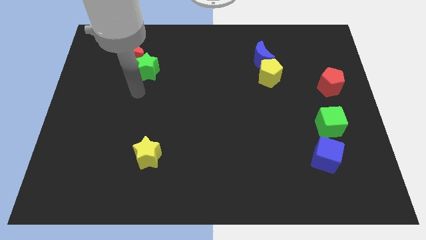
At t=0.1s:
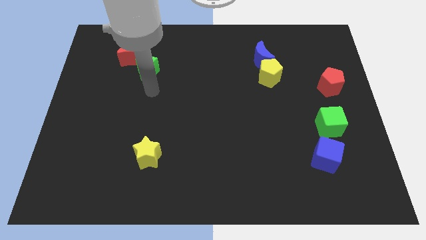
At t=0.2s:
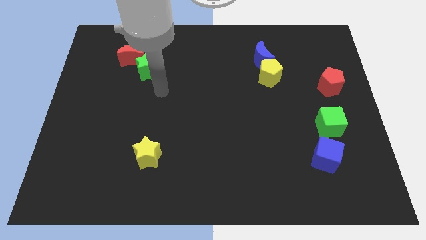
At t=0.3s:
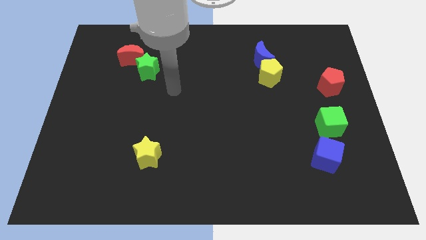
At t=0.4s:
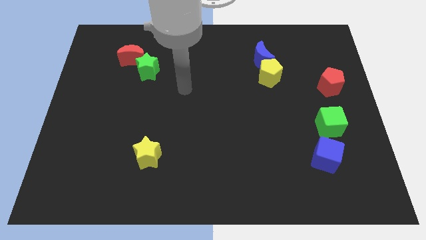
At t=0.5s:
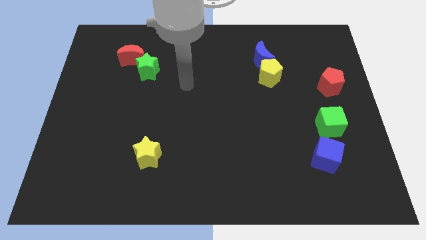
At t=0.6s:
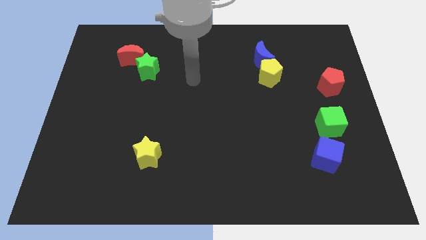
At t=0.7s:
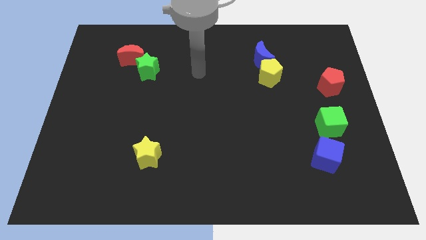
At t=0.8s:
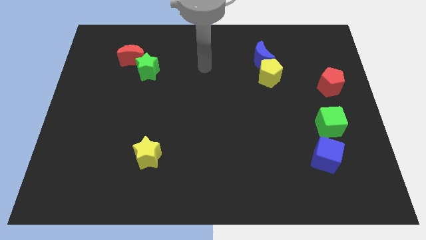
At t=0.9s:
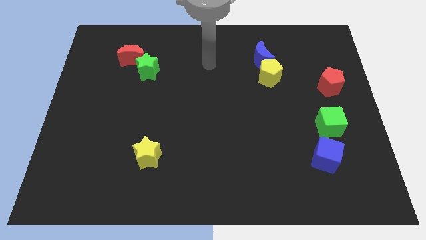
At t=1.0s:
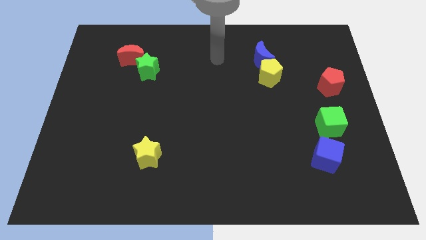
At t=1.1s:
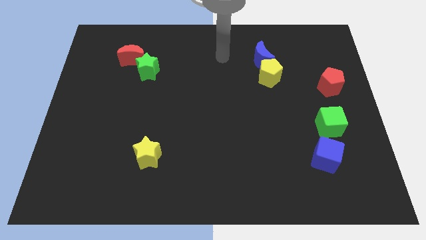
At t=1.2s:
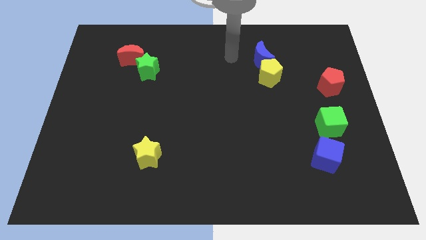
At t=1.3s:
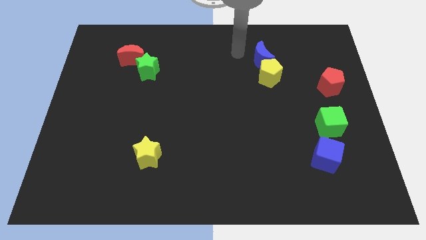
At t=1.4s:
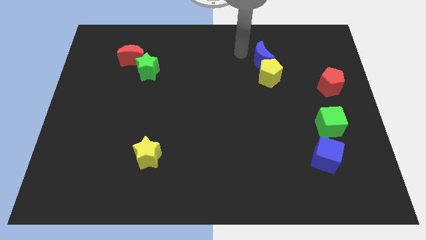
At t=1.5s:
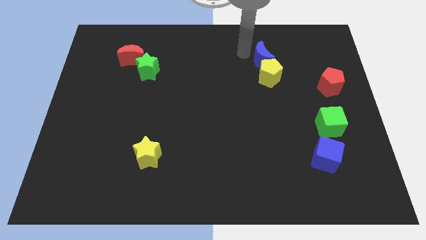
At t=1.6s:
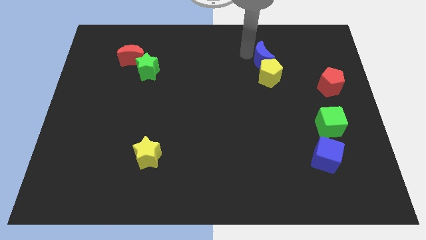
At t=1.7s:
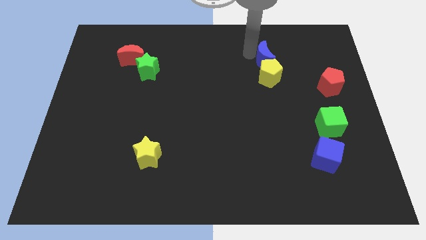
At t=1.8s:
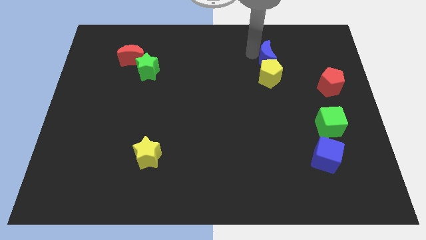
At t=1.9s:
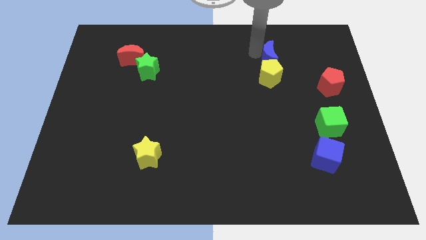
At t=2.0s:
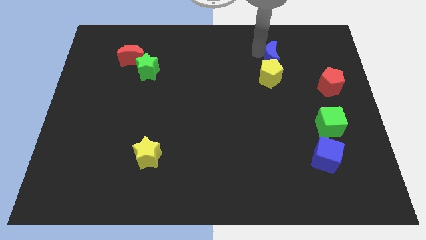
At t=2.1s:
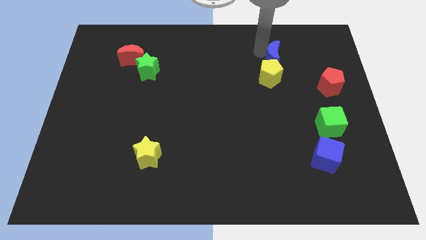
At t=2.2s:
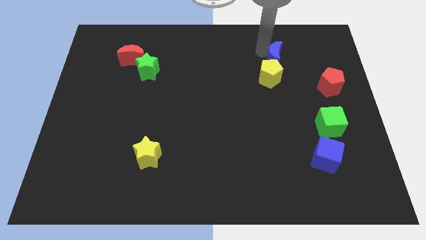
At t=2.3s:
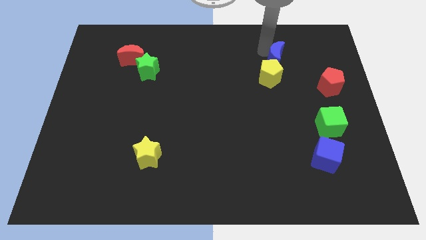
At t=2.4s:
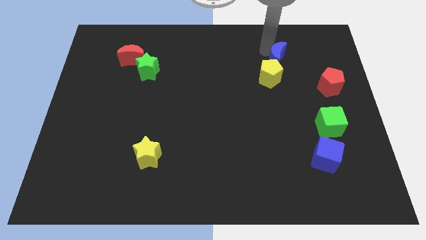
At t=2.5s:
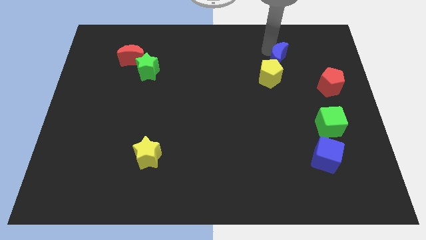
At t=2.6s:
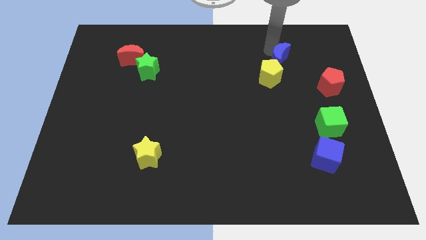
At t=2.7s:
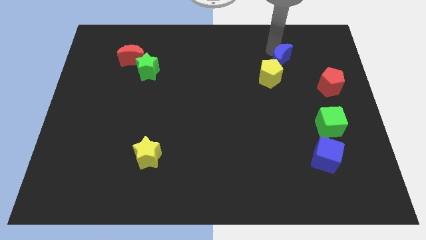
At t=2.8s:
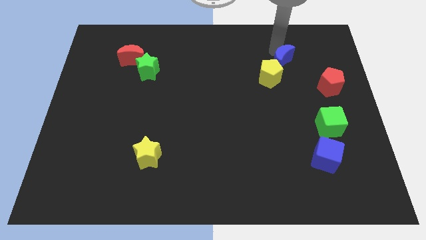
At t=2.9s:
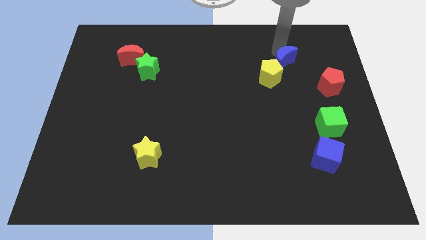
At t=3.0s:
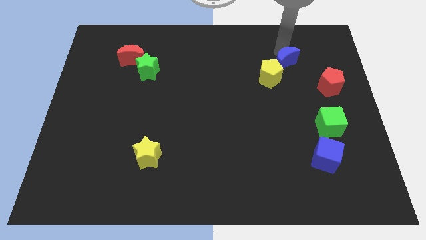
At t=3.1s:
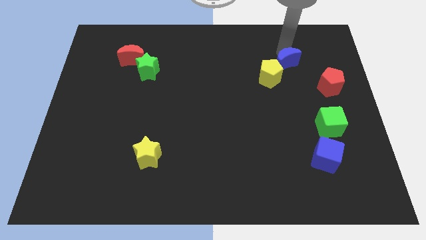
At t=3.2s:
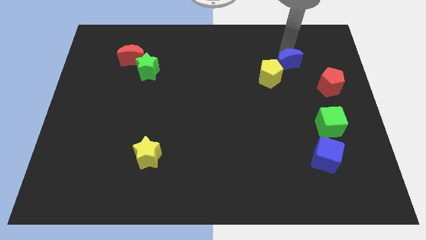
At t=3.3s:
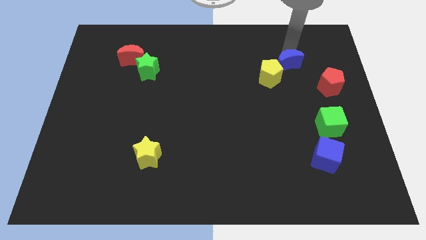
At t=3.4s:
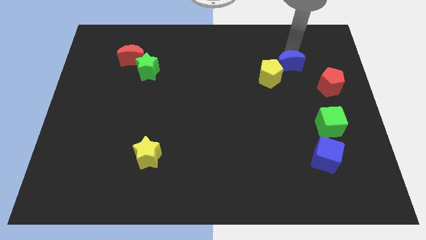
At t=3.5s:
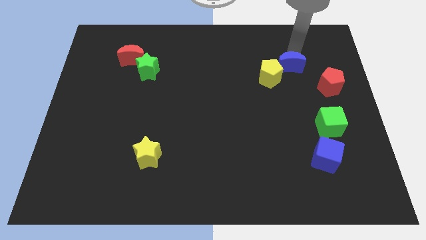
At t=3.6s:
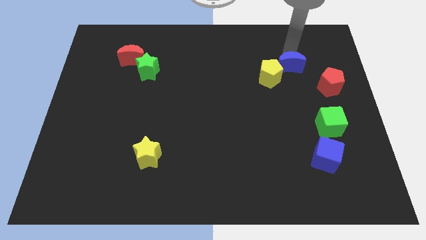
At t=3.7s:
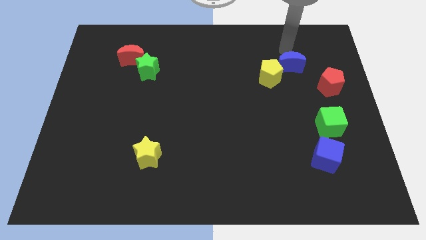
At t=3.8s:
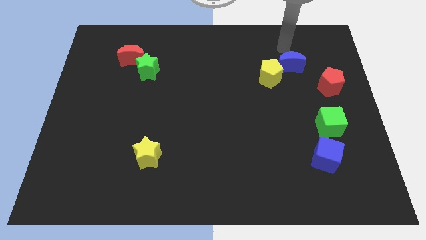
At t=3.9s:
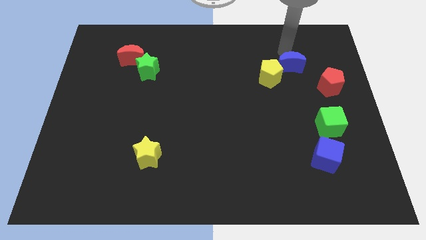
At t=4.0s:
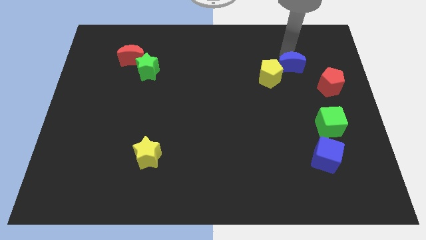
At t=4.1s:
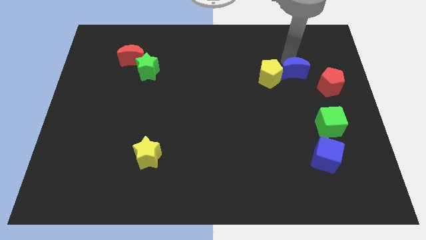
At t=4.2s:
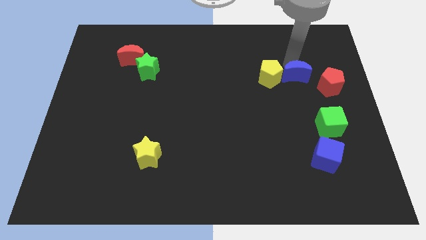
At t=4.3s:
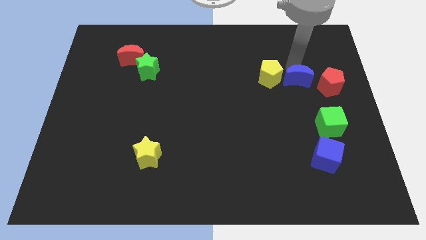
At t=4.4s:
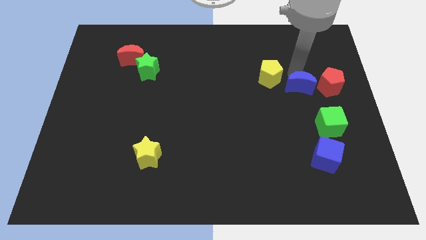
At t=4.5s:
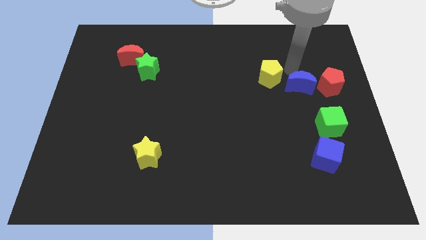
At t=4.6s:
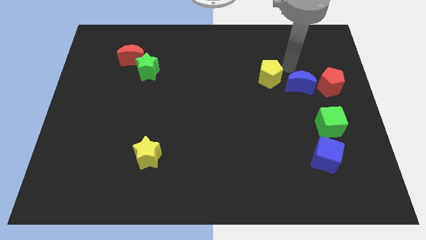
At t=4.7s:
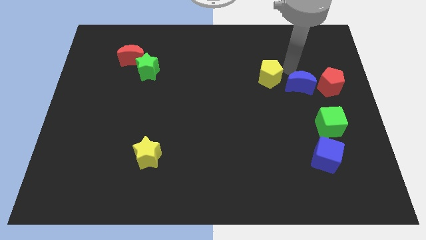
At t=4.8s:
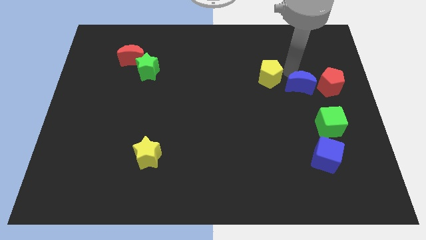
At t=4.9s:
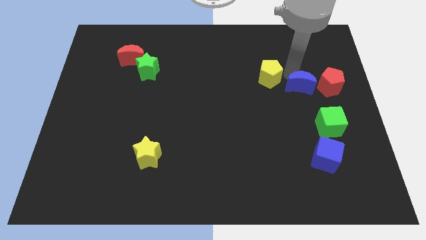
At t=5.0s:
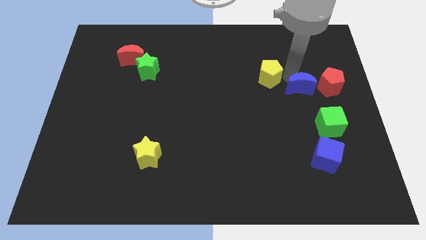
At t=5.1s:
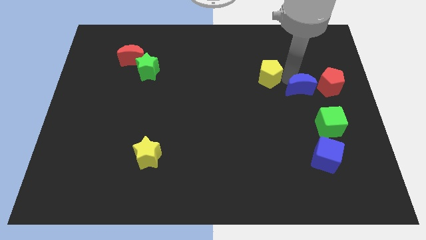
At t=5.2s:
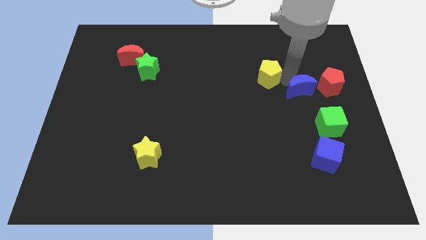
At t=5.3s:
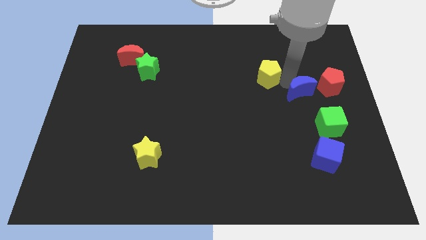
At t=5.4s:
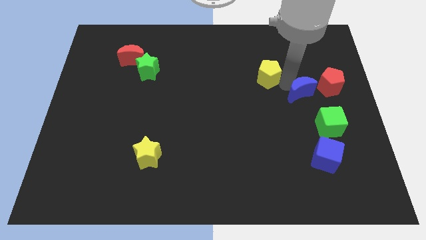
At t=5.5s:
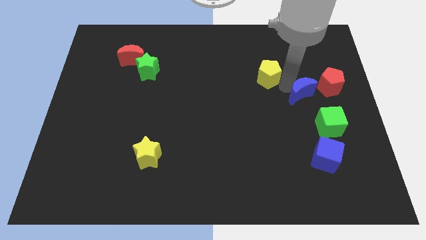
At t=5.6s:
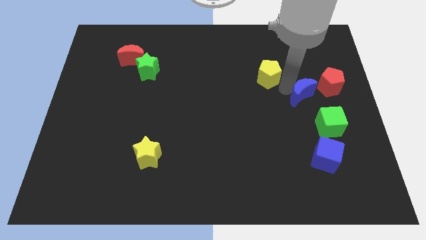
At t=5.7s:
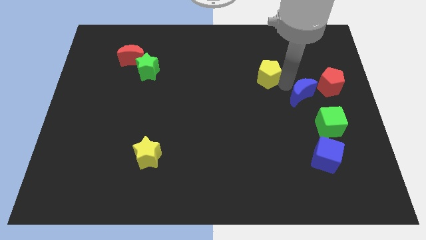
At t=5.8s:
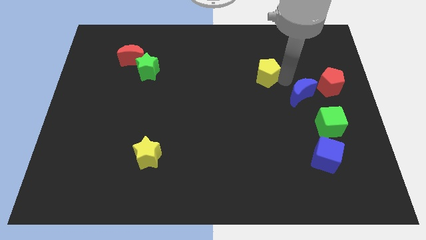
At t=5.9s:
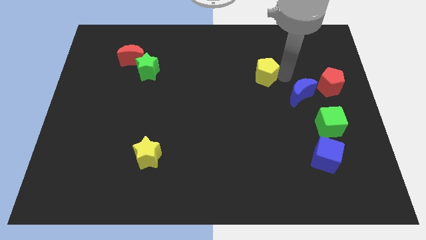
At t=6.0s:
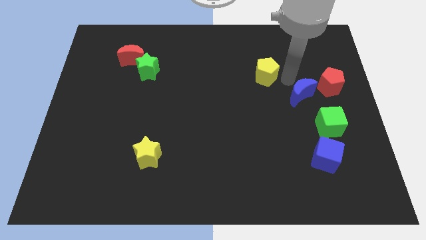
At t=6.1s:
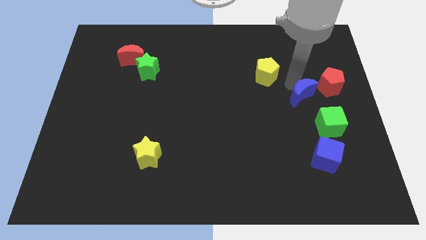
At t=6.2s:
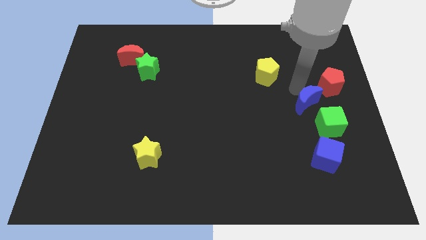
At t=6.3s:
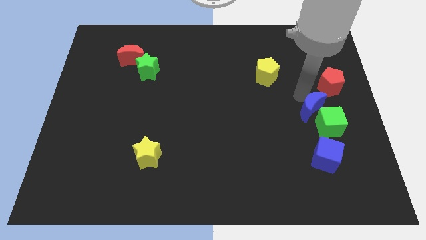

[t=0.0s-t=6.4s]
move the blue moon close to the green cube

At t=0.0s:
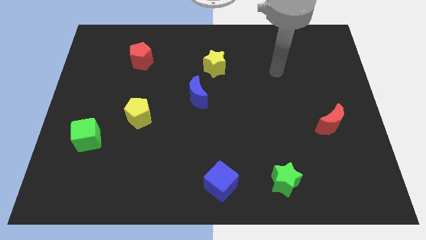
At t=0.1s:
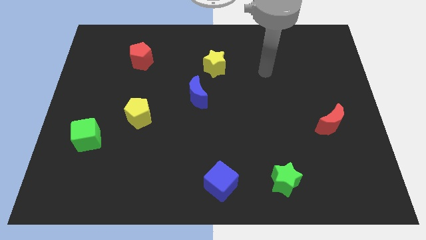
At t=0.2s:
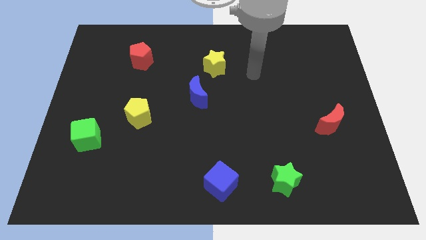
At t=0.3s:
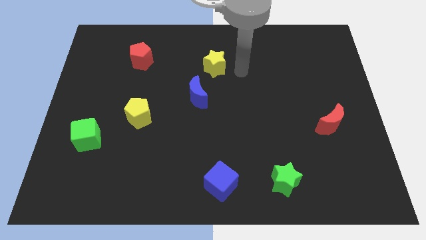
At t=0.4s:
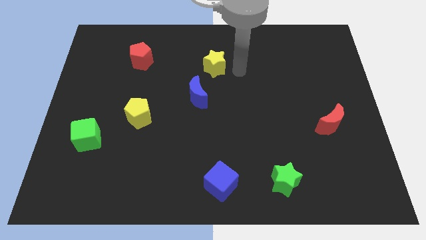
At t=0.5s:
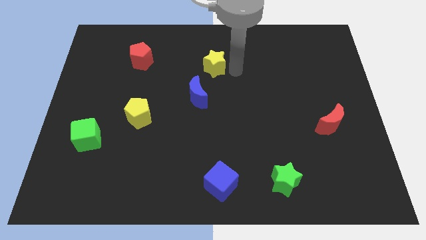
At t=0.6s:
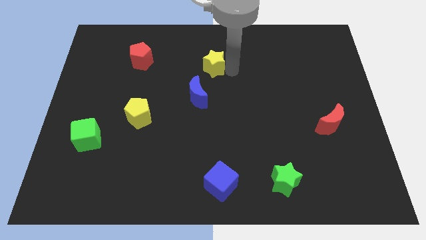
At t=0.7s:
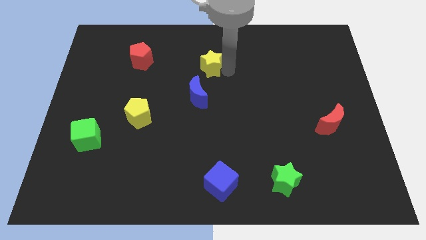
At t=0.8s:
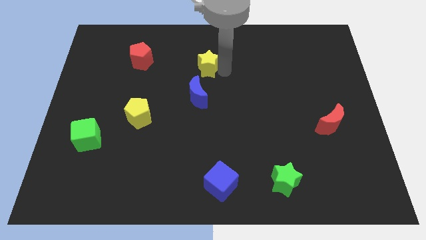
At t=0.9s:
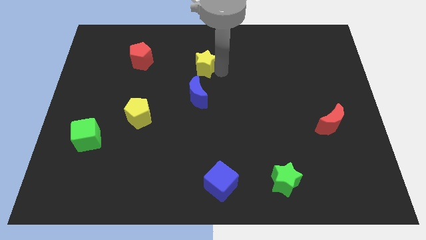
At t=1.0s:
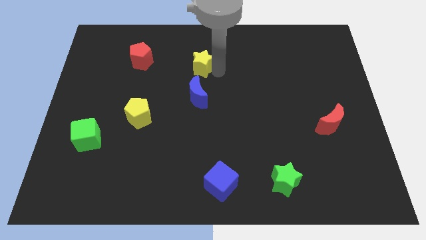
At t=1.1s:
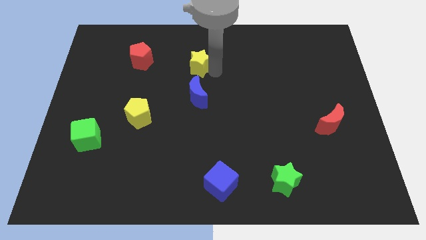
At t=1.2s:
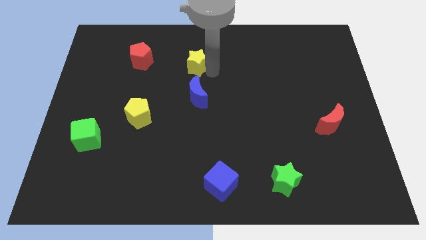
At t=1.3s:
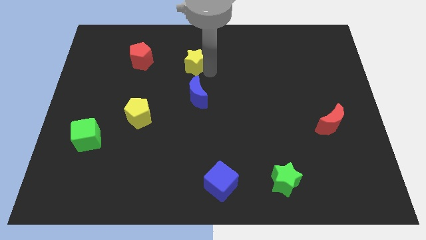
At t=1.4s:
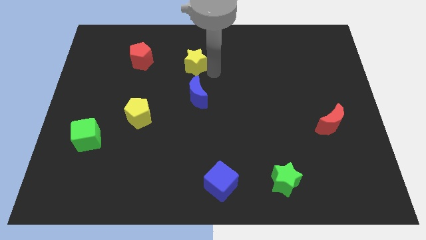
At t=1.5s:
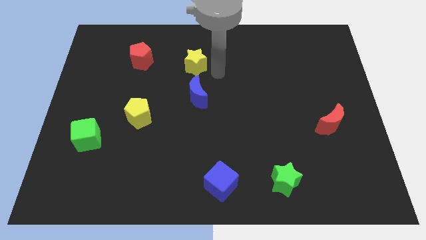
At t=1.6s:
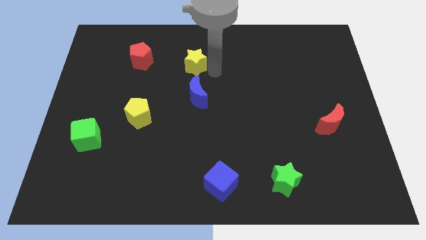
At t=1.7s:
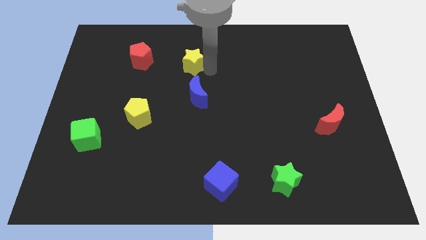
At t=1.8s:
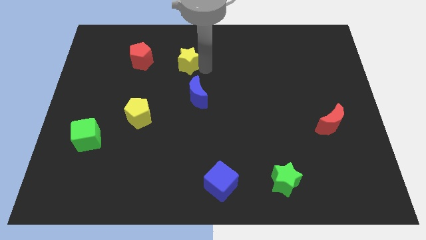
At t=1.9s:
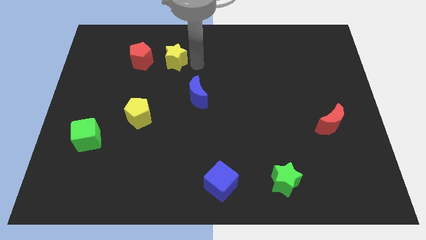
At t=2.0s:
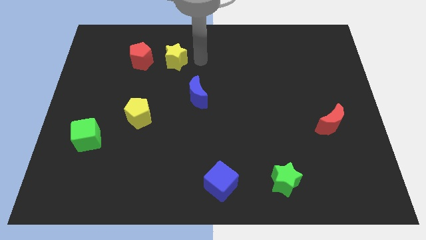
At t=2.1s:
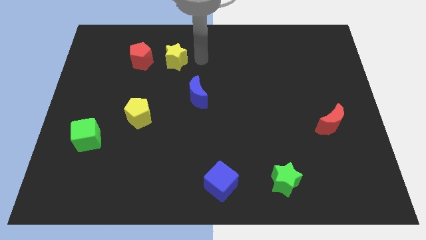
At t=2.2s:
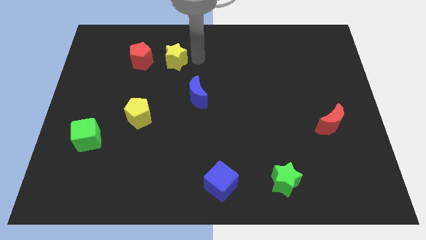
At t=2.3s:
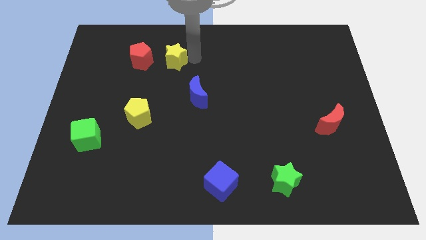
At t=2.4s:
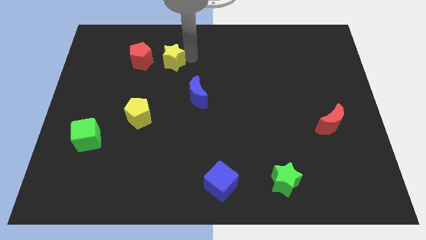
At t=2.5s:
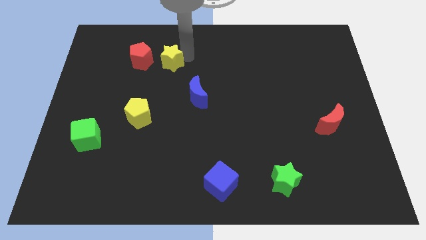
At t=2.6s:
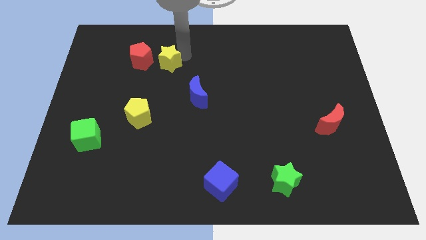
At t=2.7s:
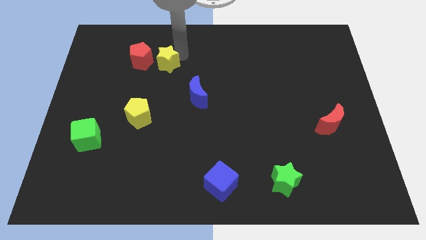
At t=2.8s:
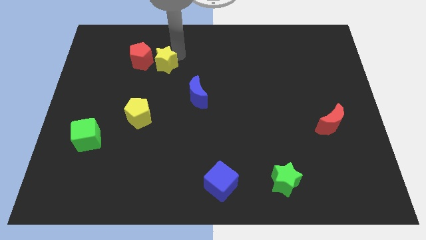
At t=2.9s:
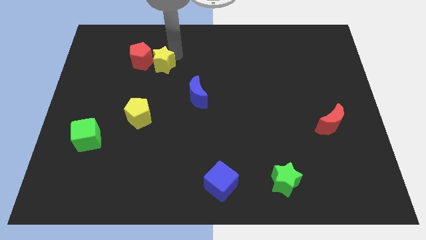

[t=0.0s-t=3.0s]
put the yellow star towards the red pentagon
